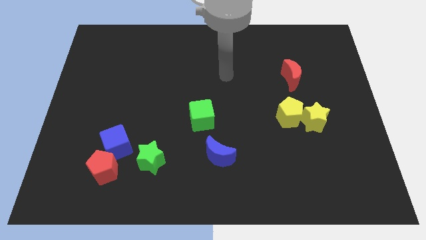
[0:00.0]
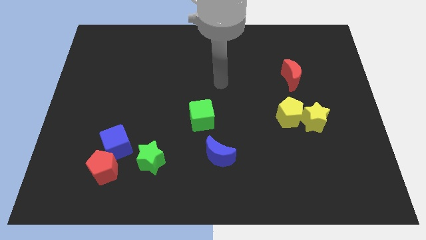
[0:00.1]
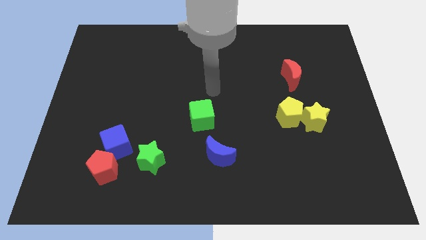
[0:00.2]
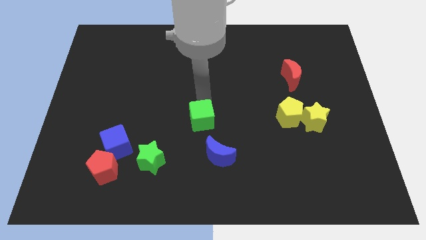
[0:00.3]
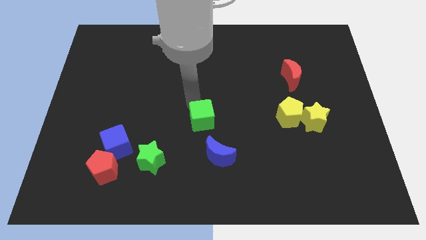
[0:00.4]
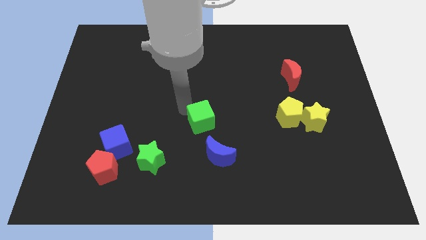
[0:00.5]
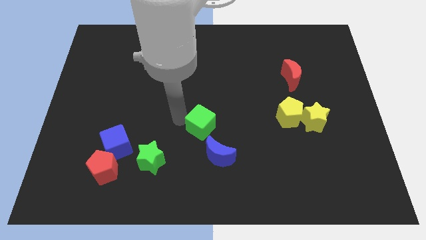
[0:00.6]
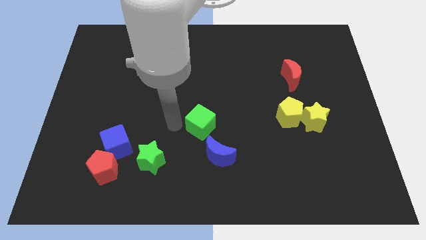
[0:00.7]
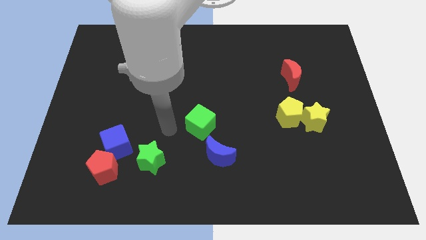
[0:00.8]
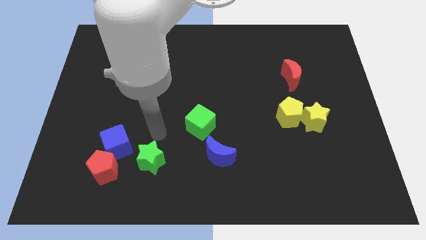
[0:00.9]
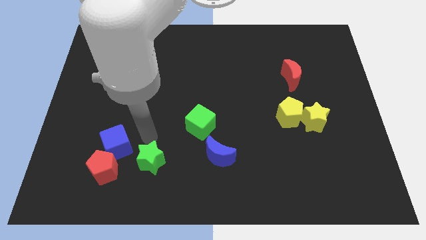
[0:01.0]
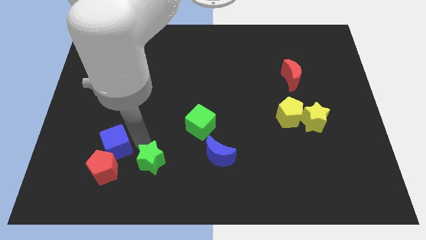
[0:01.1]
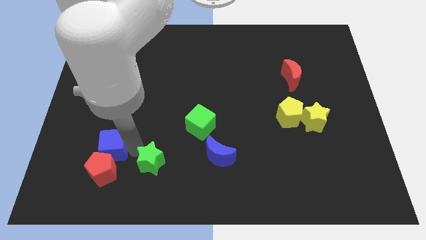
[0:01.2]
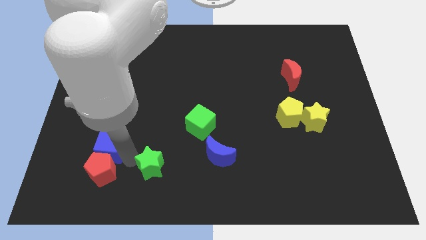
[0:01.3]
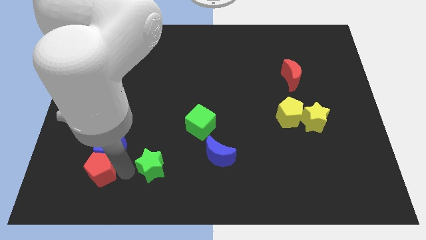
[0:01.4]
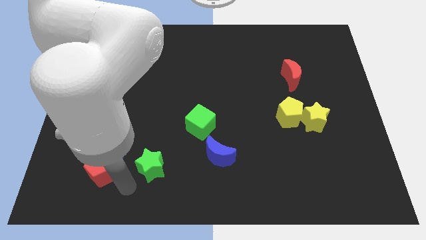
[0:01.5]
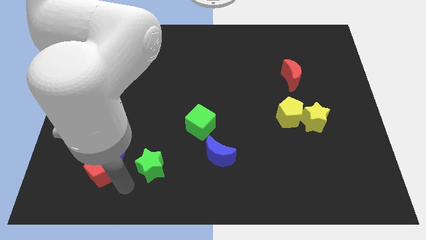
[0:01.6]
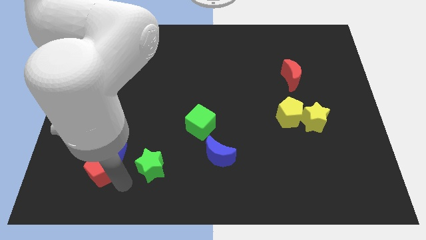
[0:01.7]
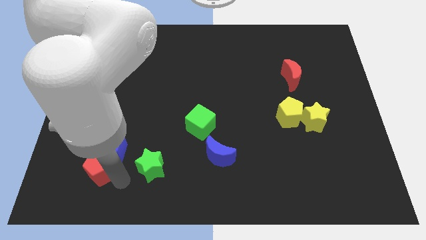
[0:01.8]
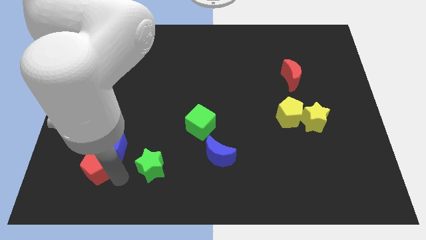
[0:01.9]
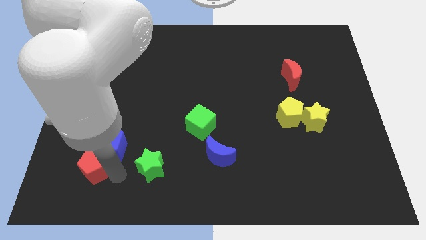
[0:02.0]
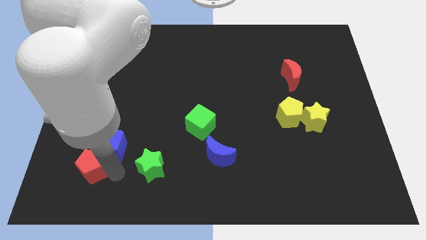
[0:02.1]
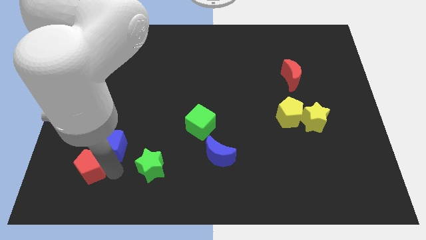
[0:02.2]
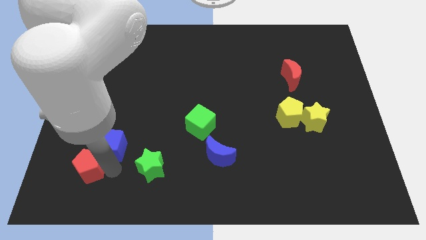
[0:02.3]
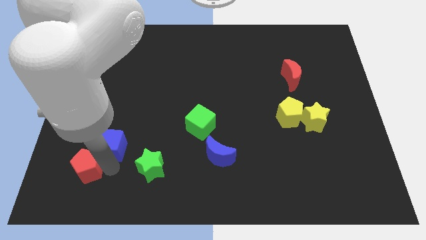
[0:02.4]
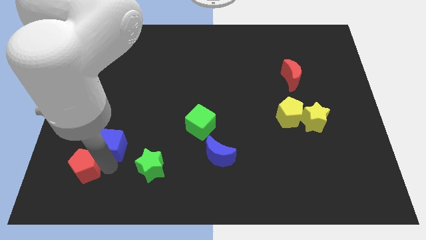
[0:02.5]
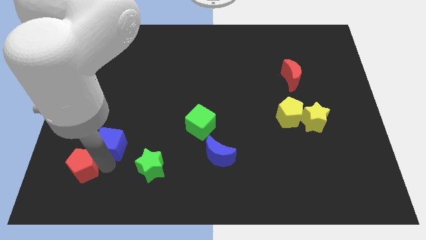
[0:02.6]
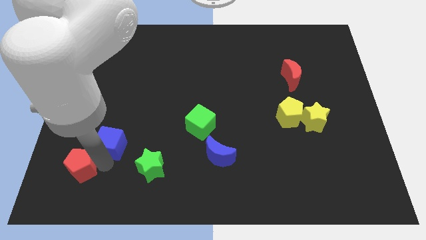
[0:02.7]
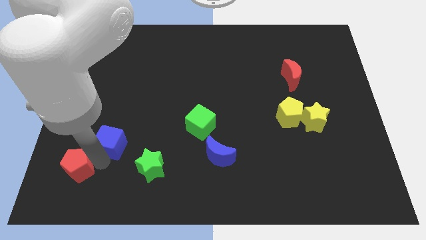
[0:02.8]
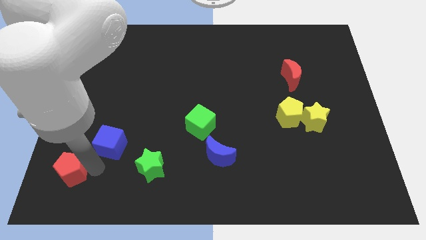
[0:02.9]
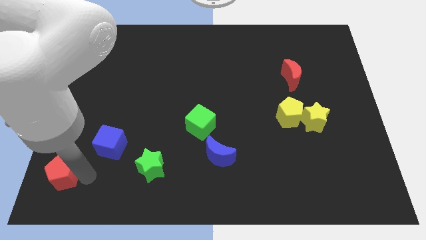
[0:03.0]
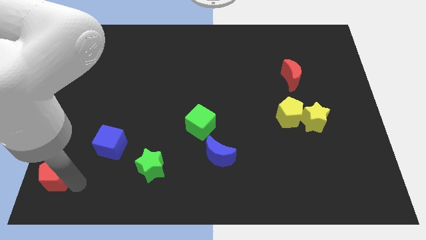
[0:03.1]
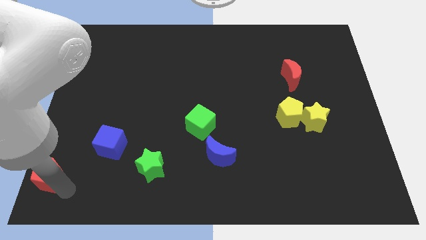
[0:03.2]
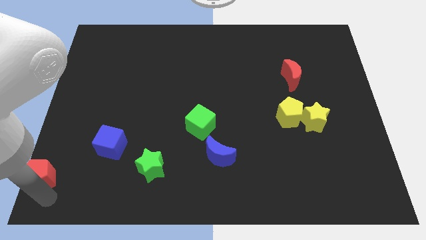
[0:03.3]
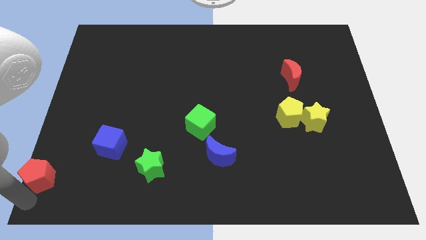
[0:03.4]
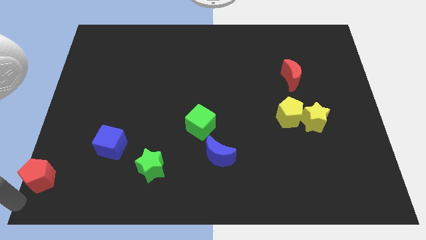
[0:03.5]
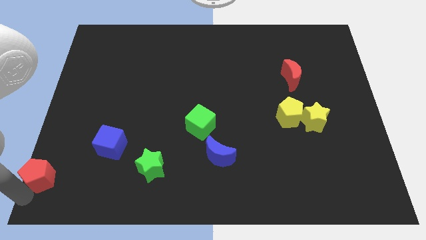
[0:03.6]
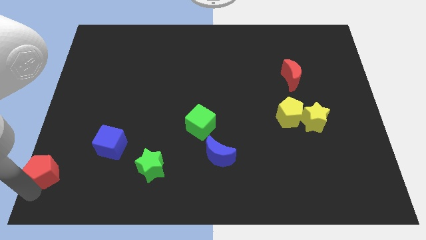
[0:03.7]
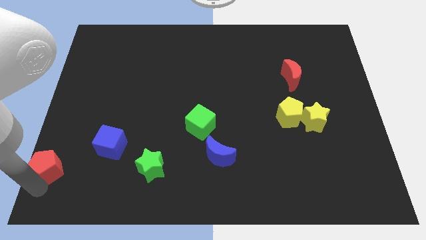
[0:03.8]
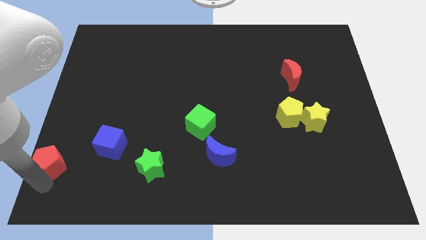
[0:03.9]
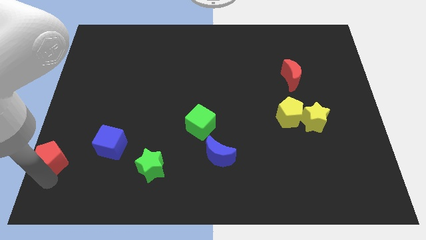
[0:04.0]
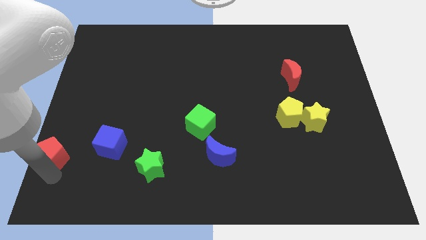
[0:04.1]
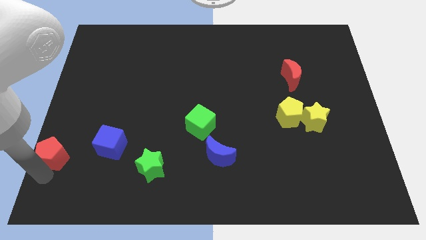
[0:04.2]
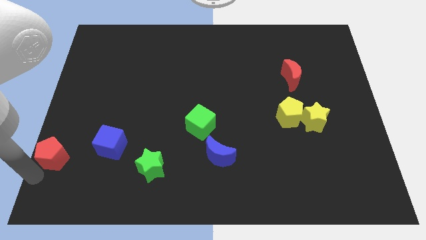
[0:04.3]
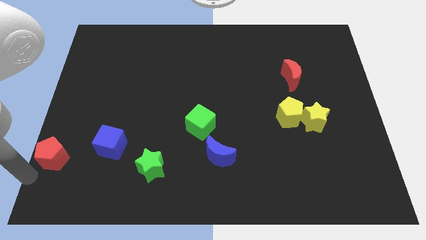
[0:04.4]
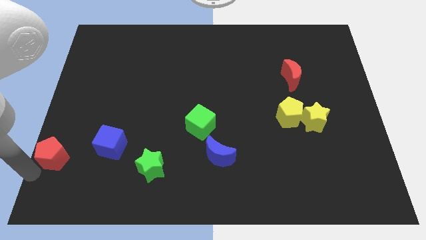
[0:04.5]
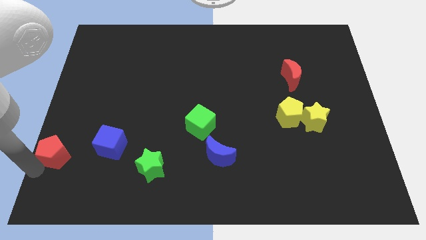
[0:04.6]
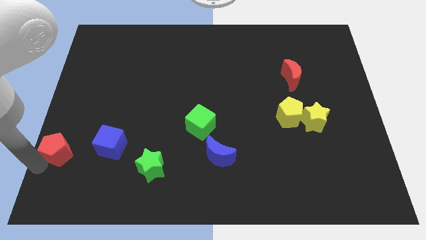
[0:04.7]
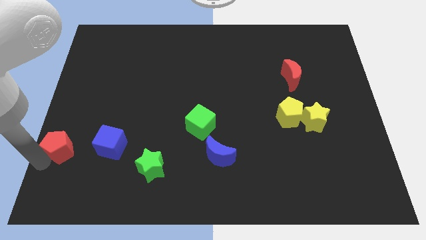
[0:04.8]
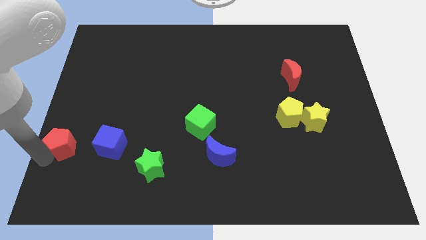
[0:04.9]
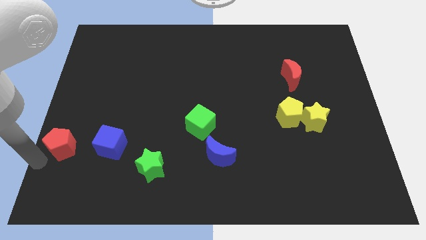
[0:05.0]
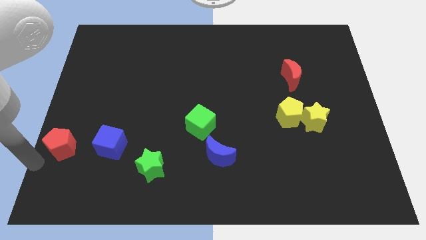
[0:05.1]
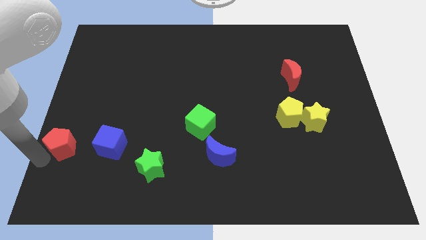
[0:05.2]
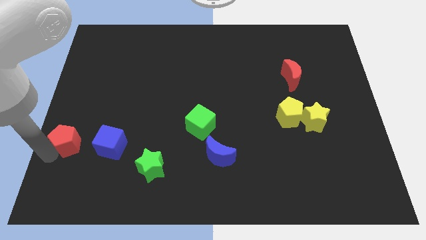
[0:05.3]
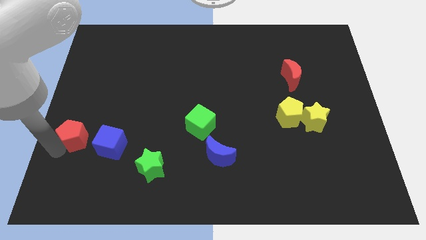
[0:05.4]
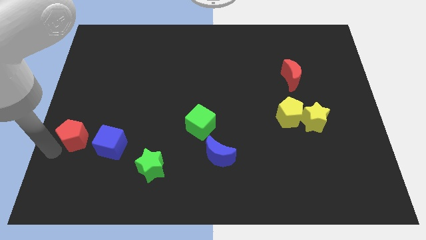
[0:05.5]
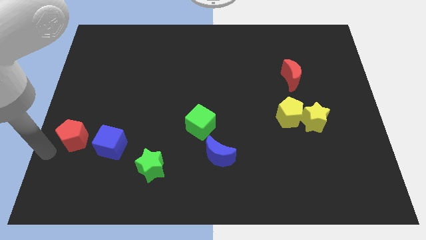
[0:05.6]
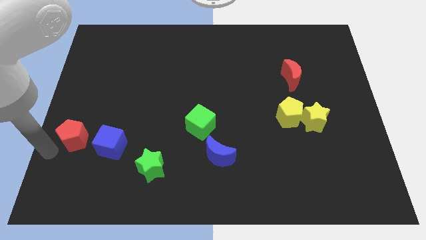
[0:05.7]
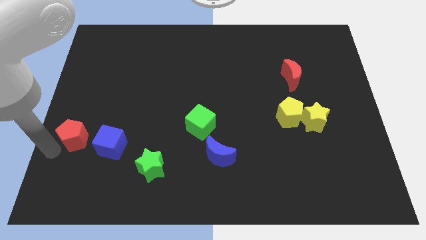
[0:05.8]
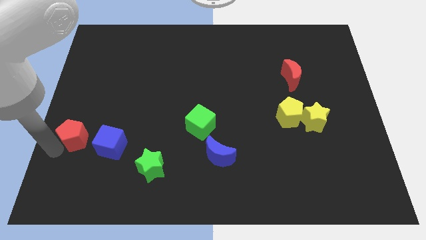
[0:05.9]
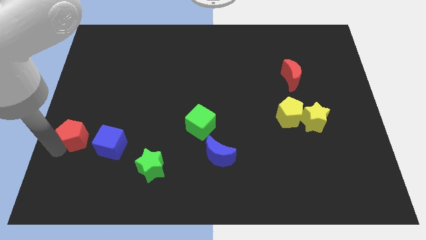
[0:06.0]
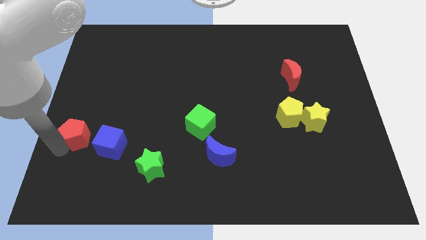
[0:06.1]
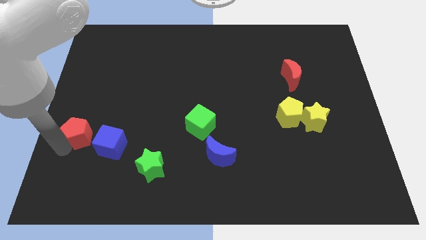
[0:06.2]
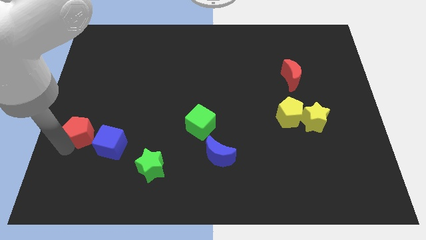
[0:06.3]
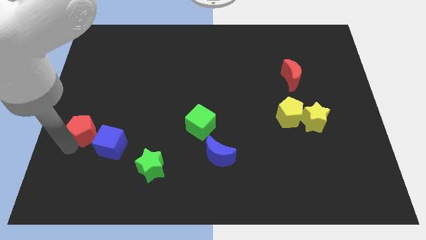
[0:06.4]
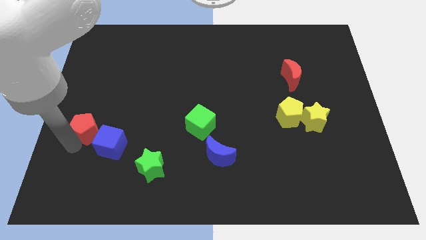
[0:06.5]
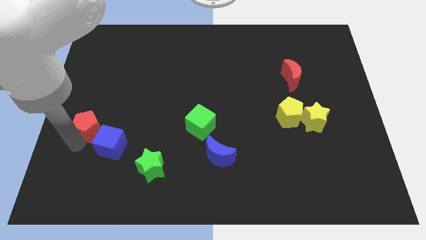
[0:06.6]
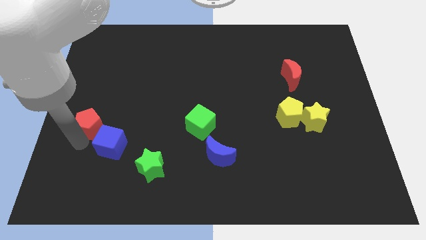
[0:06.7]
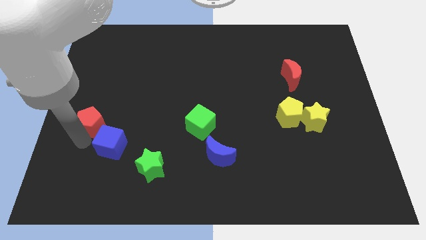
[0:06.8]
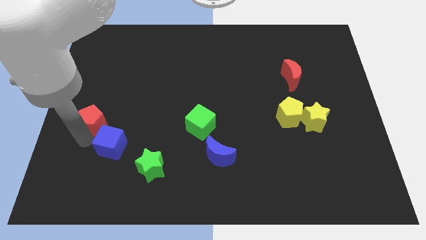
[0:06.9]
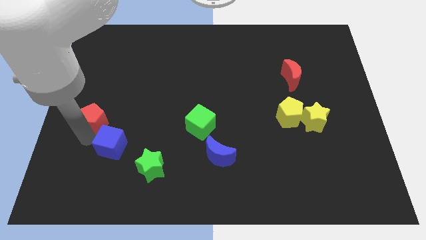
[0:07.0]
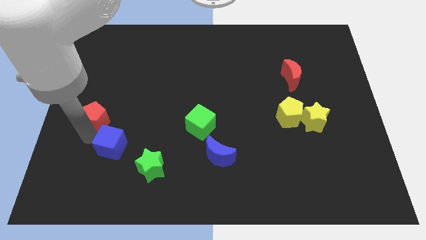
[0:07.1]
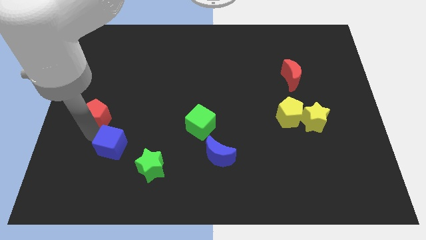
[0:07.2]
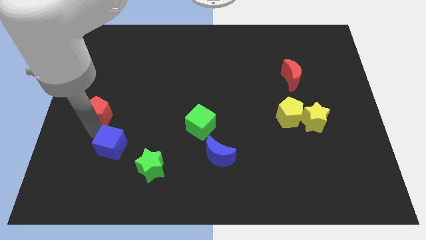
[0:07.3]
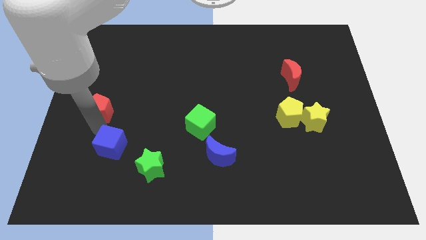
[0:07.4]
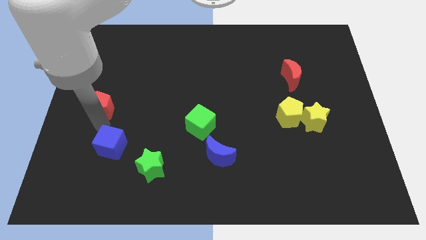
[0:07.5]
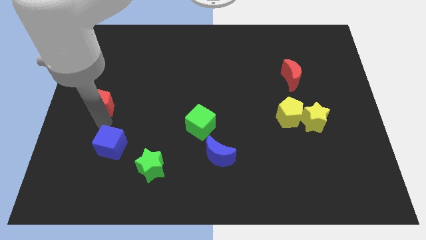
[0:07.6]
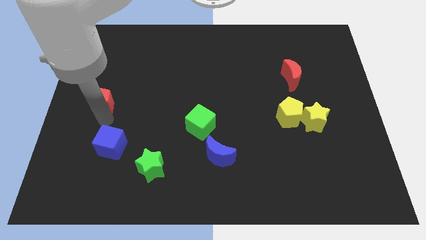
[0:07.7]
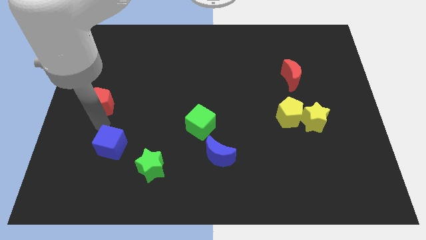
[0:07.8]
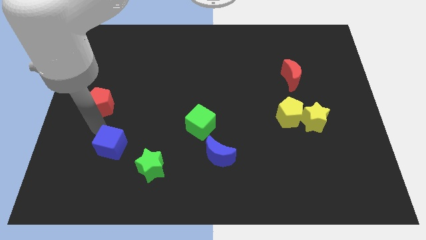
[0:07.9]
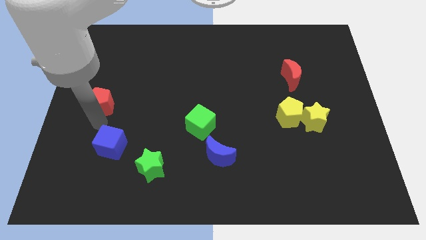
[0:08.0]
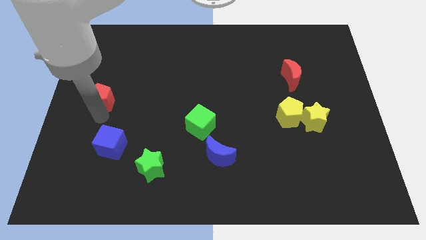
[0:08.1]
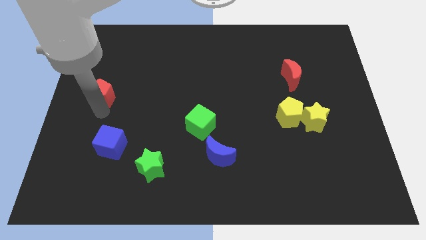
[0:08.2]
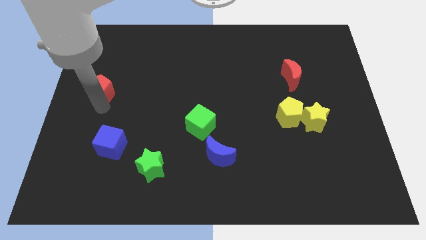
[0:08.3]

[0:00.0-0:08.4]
push the red pentagon upwards
